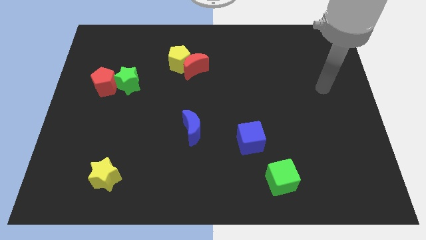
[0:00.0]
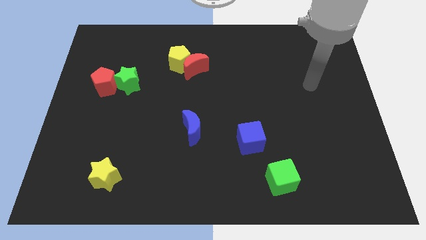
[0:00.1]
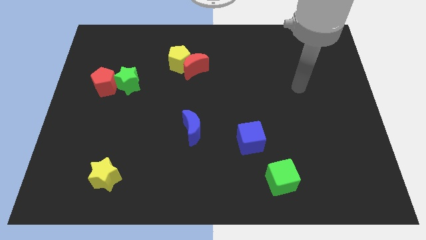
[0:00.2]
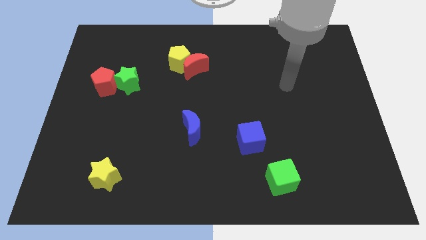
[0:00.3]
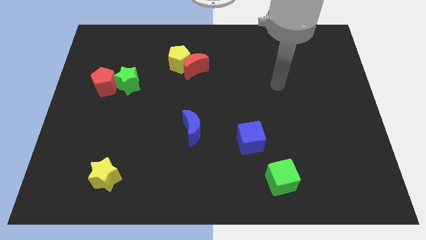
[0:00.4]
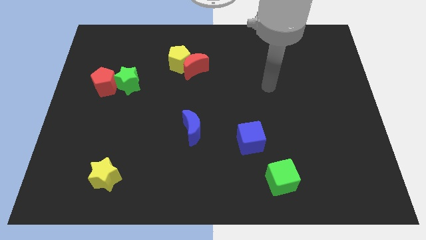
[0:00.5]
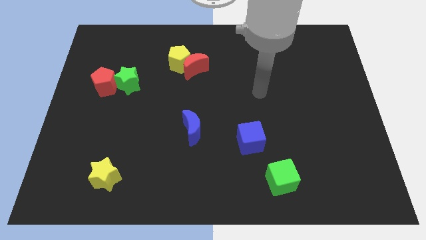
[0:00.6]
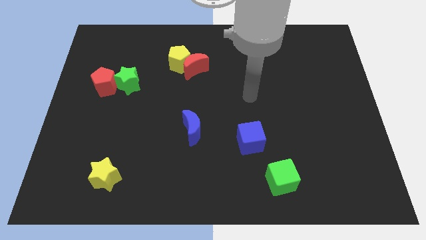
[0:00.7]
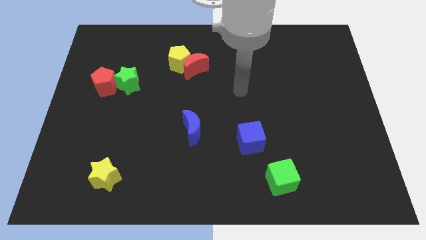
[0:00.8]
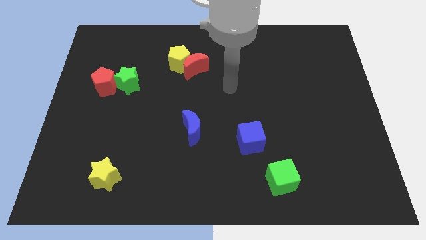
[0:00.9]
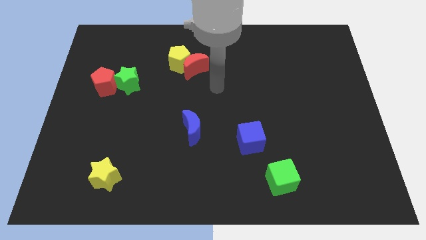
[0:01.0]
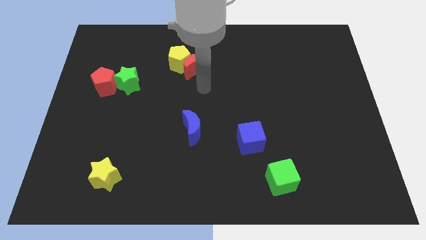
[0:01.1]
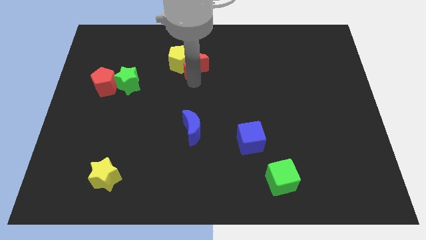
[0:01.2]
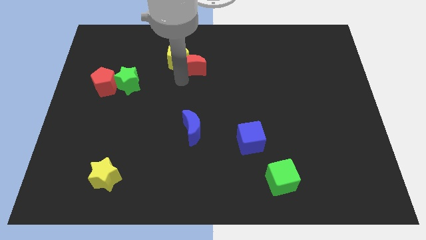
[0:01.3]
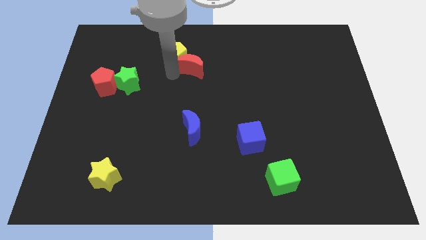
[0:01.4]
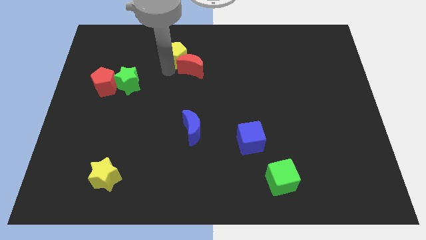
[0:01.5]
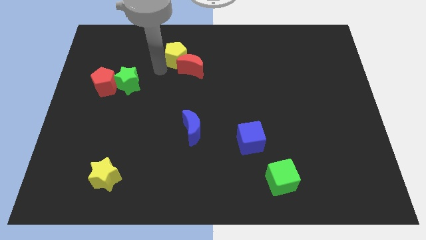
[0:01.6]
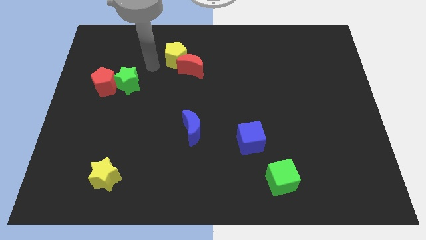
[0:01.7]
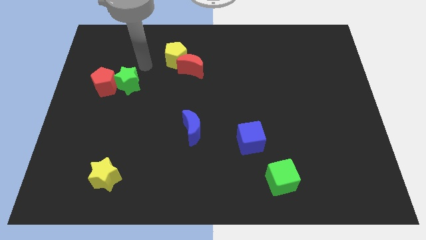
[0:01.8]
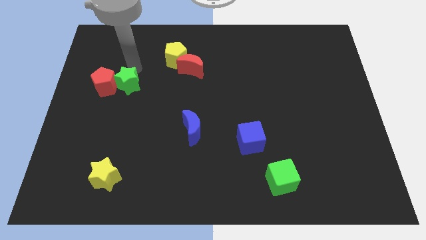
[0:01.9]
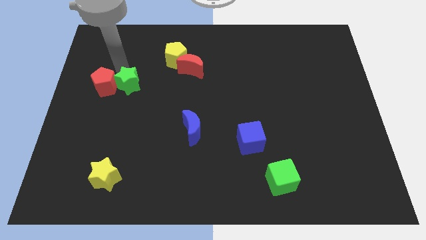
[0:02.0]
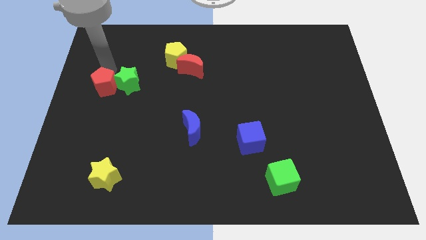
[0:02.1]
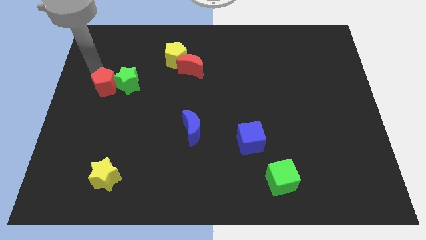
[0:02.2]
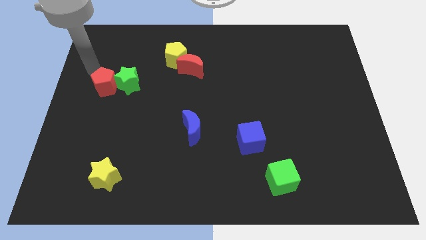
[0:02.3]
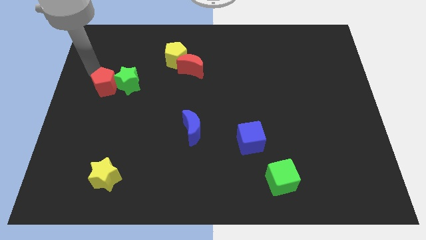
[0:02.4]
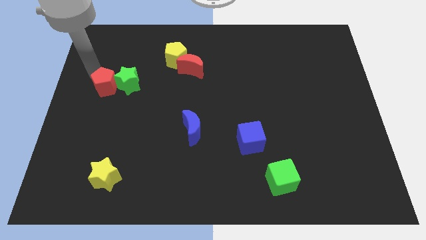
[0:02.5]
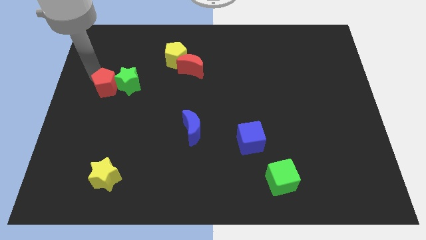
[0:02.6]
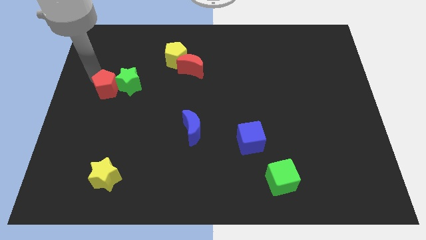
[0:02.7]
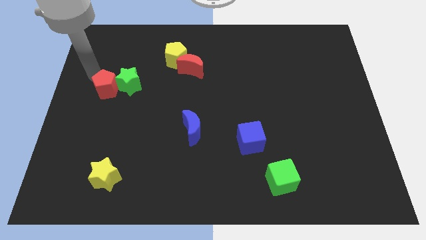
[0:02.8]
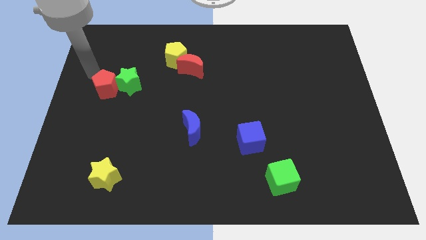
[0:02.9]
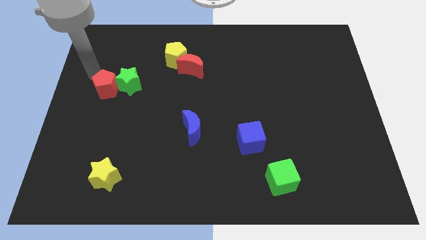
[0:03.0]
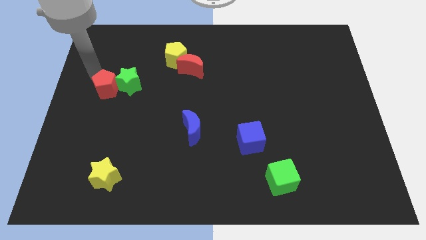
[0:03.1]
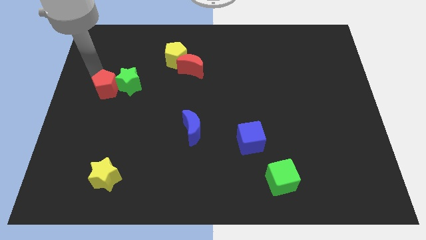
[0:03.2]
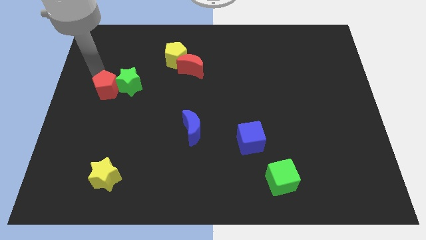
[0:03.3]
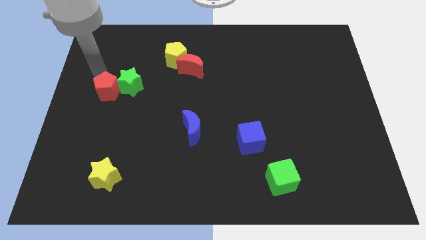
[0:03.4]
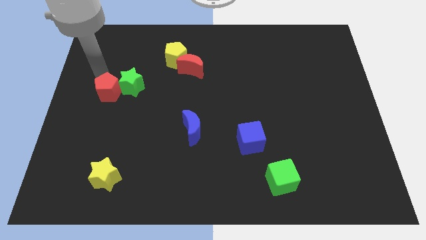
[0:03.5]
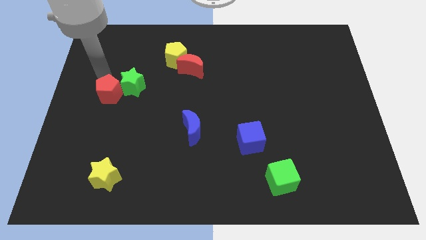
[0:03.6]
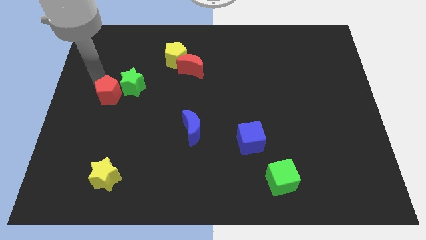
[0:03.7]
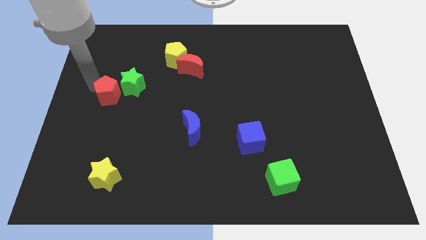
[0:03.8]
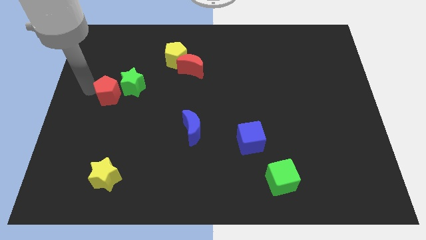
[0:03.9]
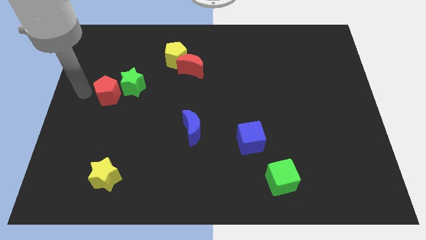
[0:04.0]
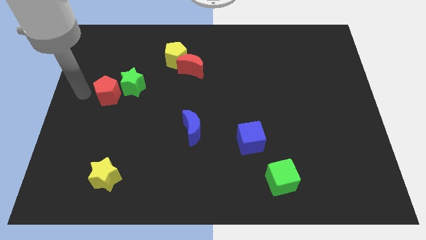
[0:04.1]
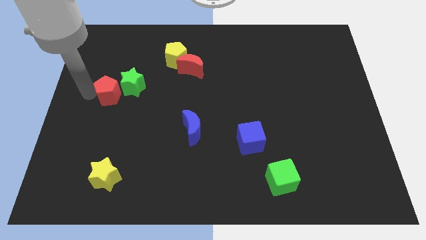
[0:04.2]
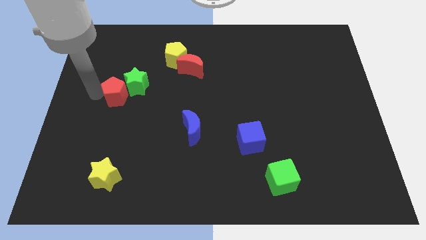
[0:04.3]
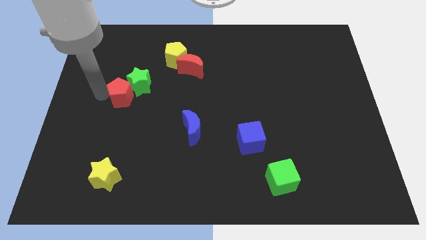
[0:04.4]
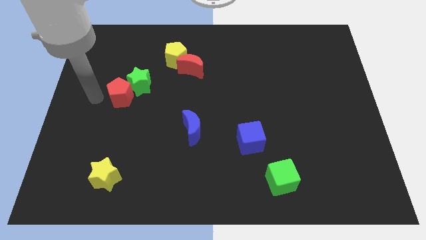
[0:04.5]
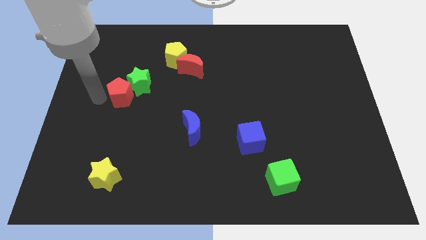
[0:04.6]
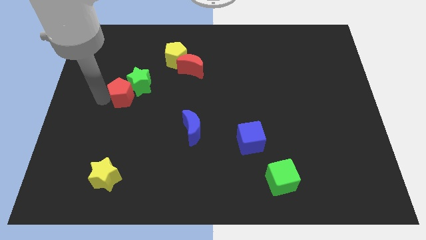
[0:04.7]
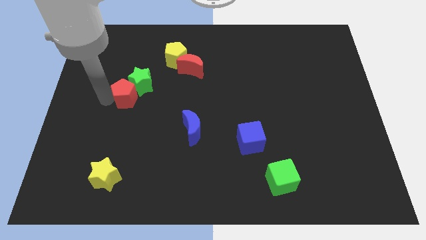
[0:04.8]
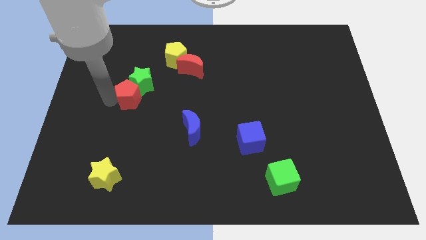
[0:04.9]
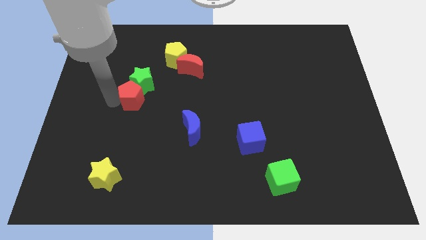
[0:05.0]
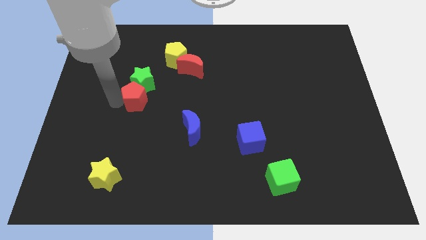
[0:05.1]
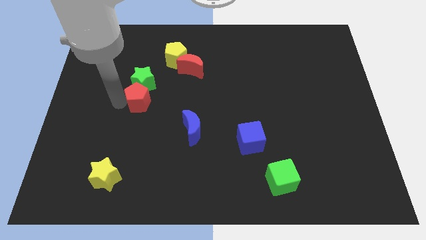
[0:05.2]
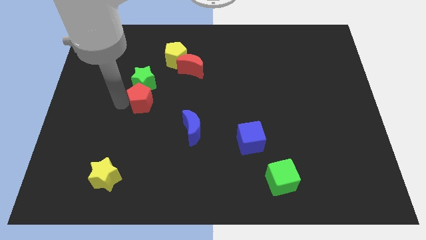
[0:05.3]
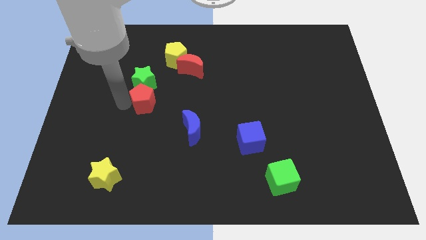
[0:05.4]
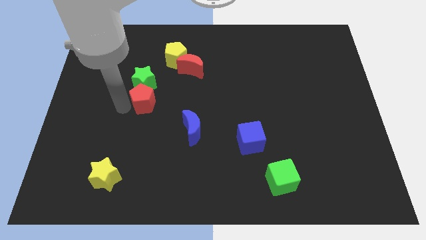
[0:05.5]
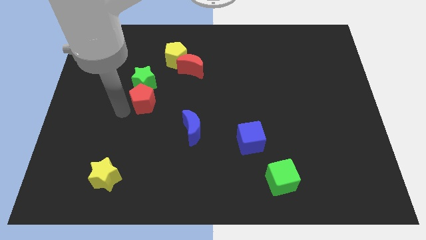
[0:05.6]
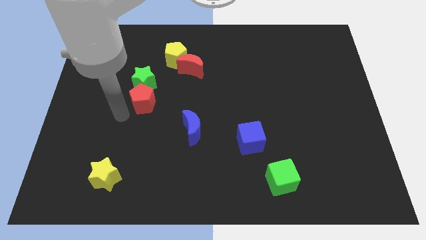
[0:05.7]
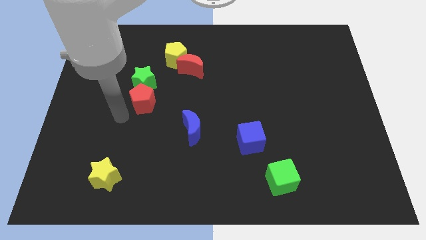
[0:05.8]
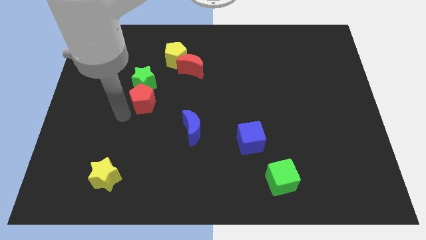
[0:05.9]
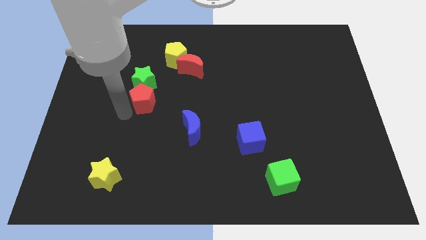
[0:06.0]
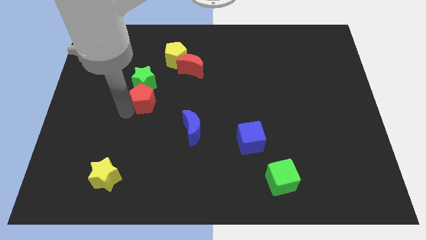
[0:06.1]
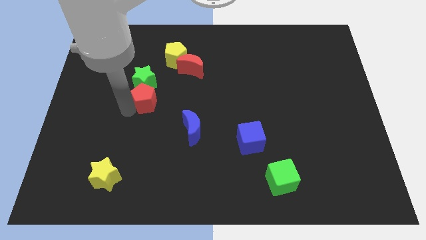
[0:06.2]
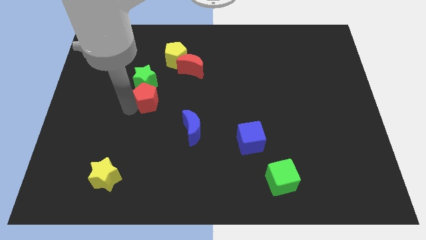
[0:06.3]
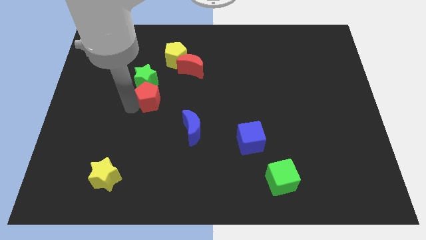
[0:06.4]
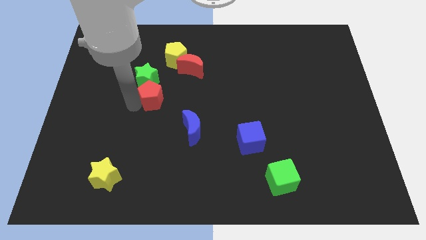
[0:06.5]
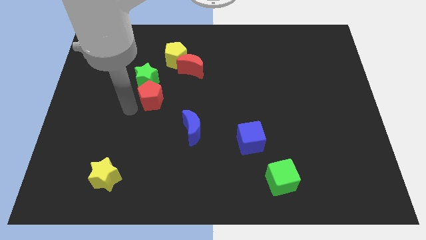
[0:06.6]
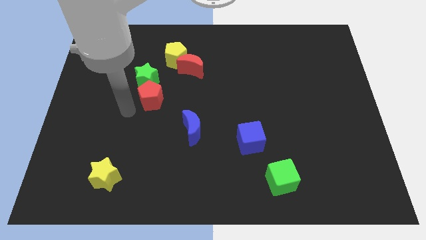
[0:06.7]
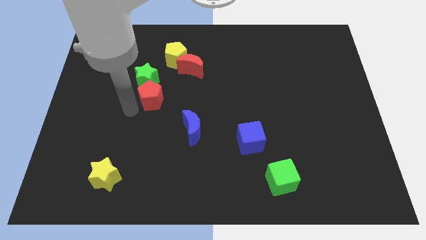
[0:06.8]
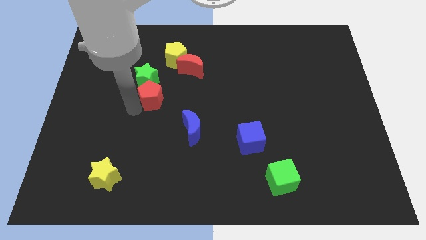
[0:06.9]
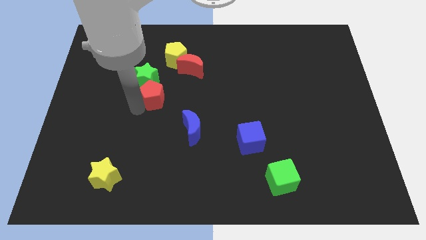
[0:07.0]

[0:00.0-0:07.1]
move the red pentagon to the bottom of the yellow pentagon

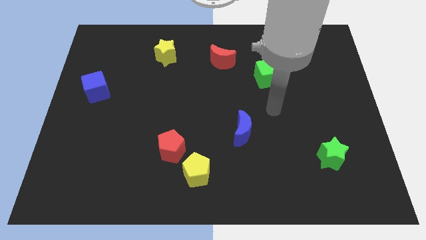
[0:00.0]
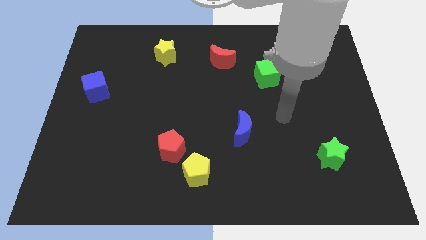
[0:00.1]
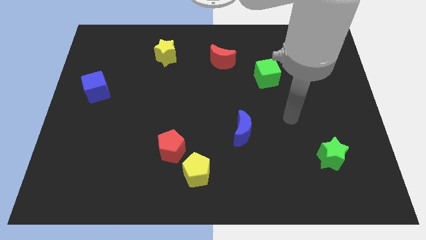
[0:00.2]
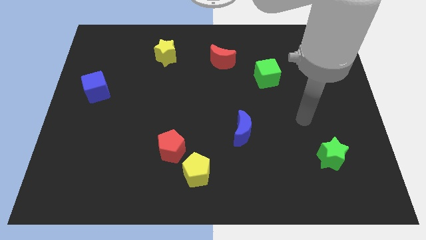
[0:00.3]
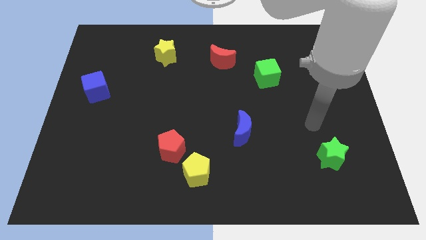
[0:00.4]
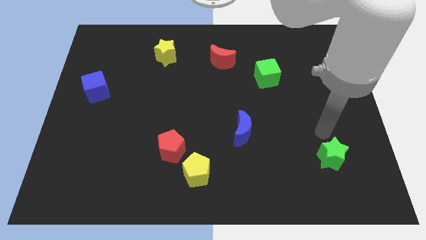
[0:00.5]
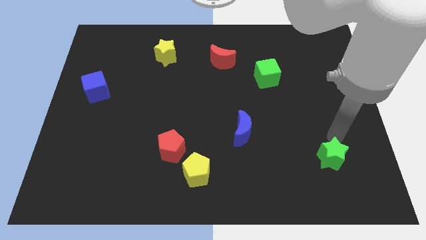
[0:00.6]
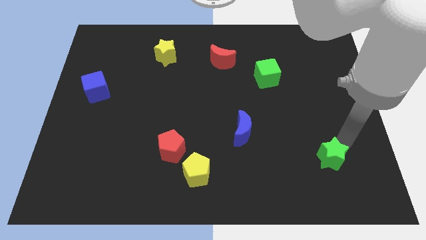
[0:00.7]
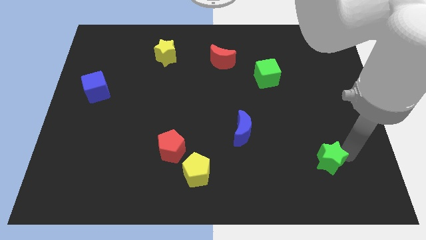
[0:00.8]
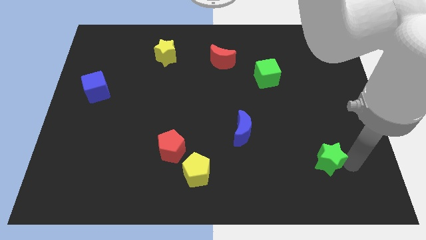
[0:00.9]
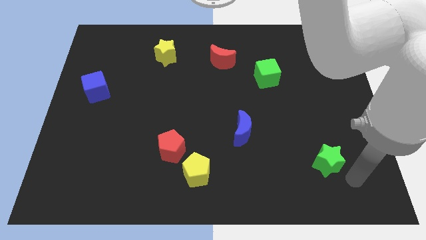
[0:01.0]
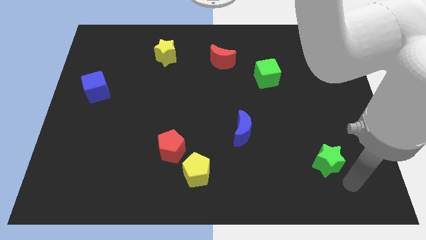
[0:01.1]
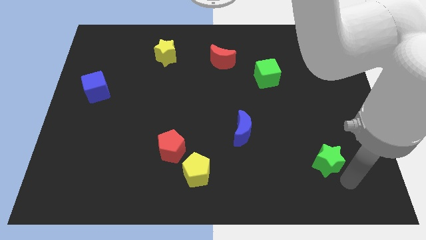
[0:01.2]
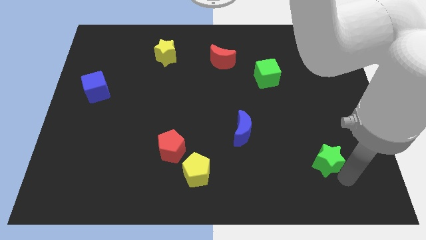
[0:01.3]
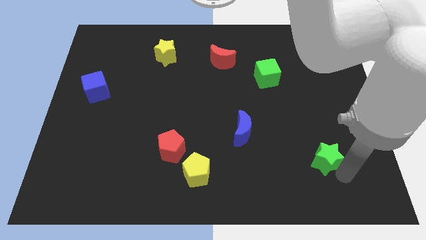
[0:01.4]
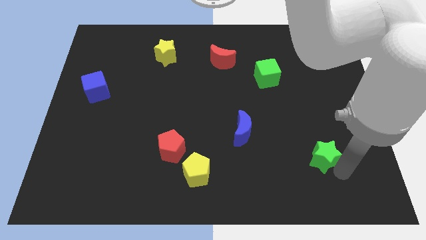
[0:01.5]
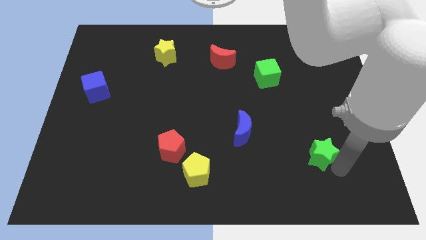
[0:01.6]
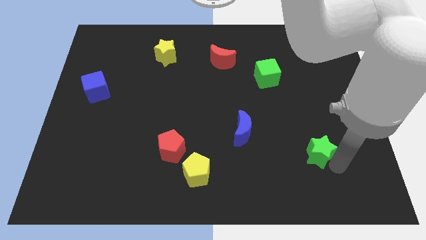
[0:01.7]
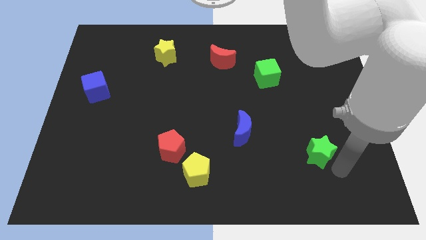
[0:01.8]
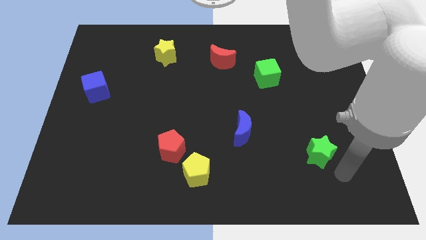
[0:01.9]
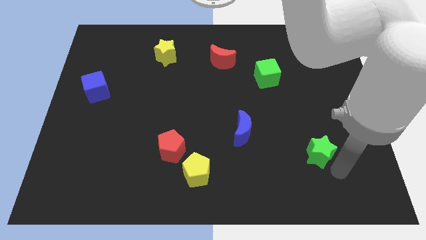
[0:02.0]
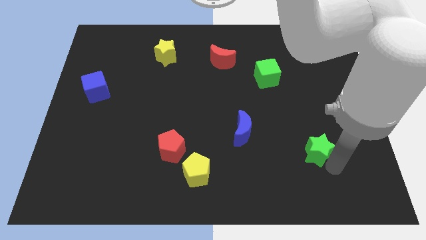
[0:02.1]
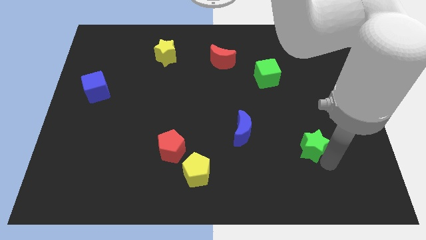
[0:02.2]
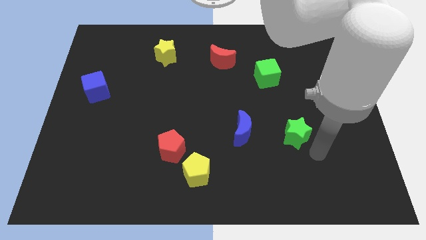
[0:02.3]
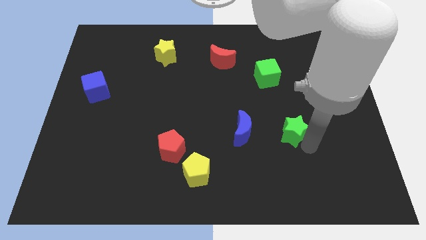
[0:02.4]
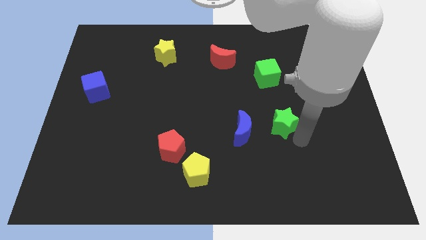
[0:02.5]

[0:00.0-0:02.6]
slide the green star to the top right of the blue moon
